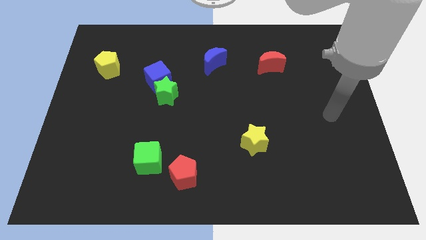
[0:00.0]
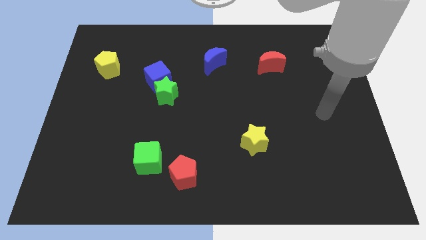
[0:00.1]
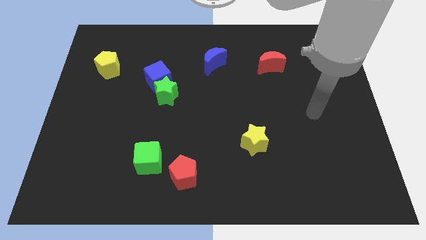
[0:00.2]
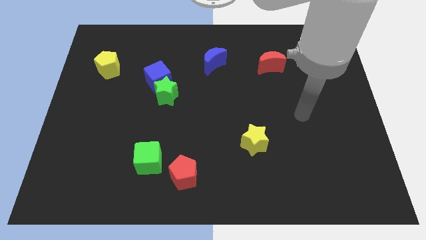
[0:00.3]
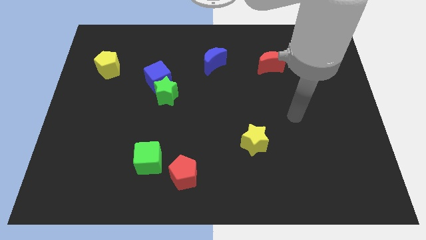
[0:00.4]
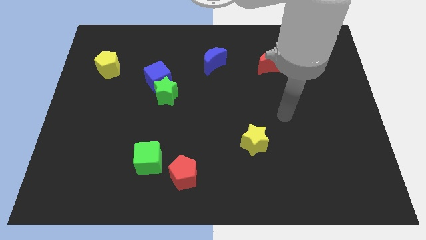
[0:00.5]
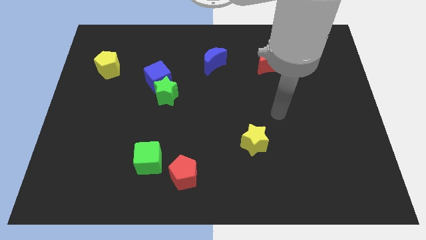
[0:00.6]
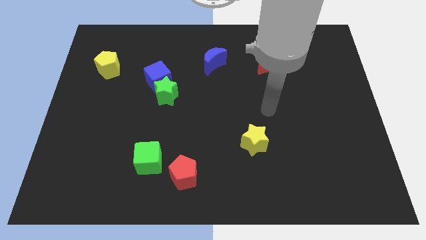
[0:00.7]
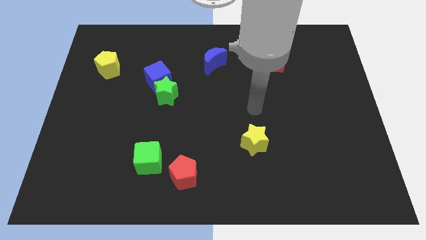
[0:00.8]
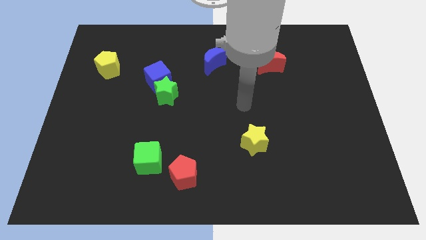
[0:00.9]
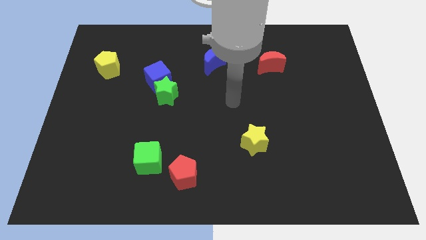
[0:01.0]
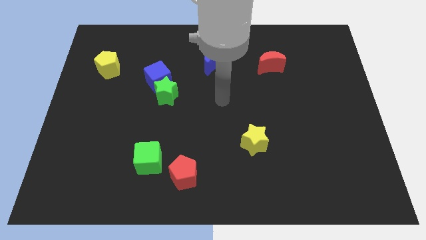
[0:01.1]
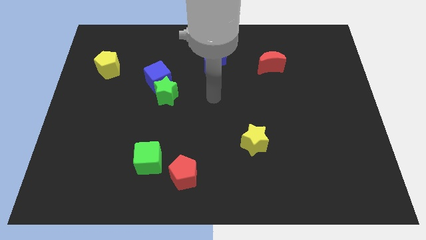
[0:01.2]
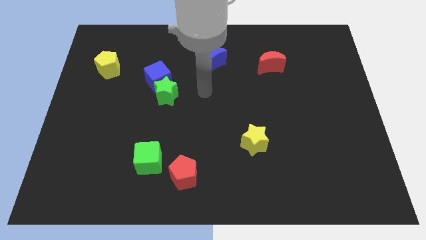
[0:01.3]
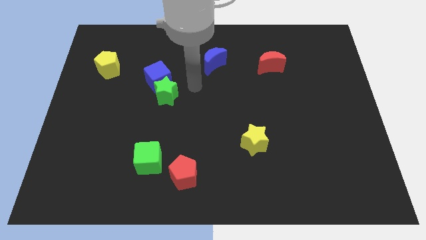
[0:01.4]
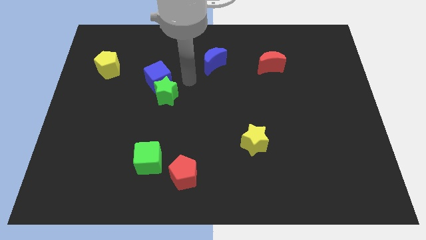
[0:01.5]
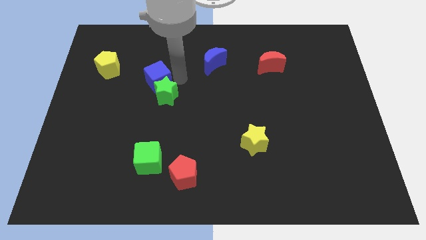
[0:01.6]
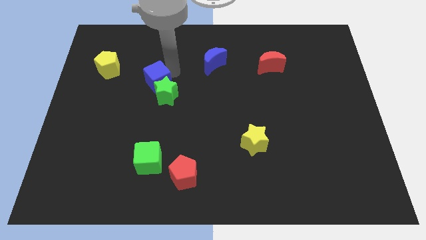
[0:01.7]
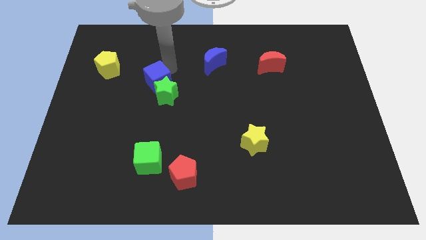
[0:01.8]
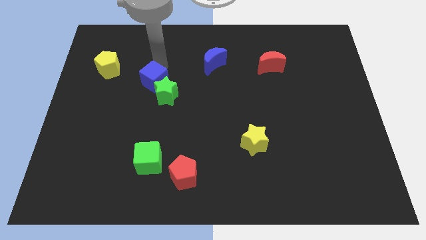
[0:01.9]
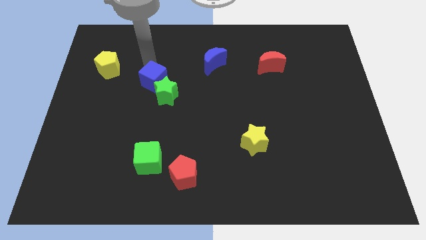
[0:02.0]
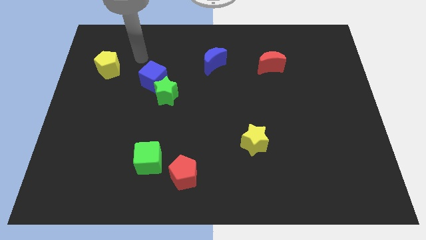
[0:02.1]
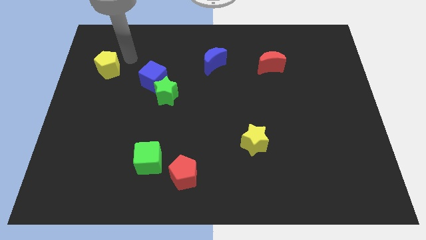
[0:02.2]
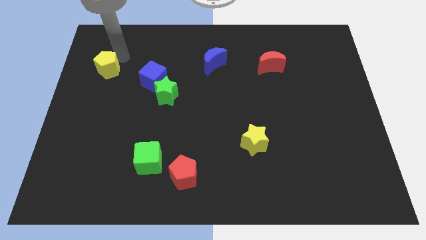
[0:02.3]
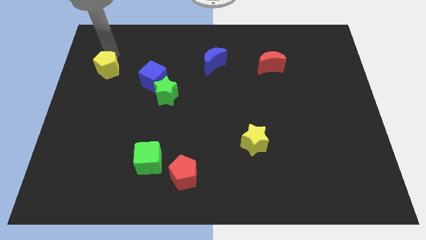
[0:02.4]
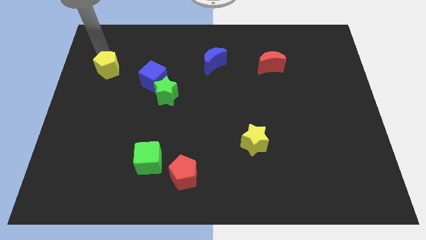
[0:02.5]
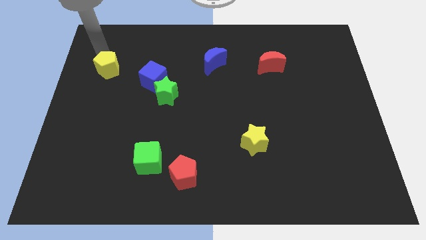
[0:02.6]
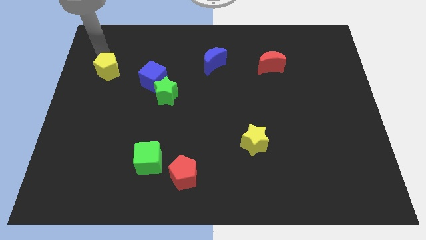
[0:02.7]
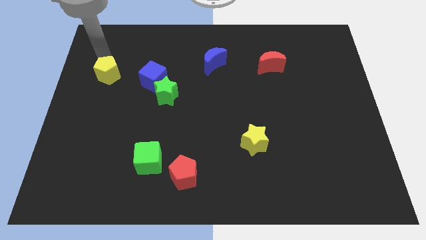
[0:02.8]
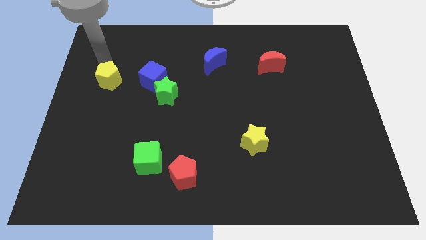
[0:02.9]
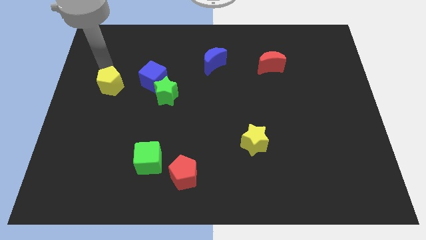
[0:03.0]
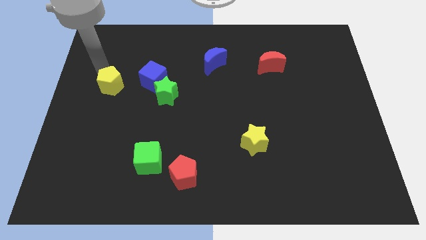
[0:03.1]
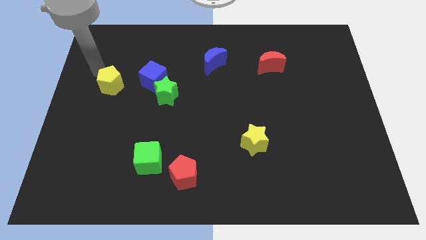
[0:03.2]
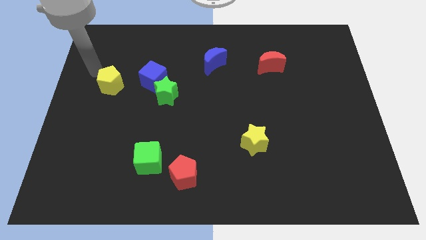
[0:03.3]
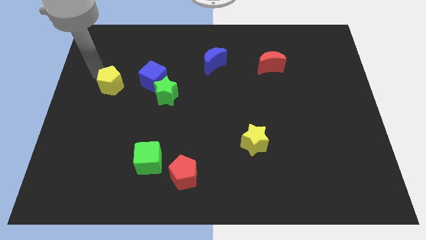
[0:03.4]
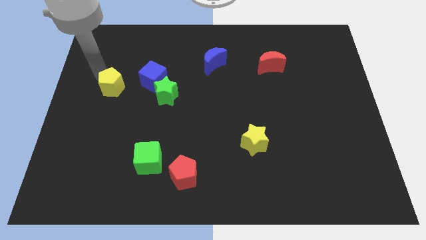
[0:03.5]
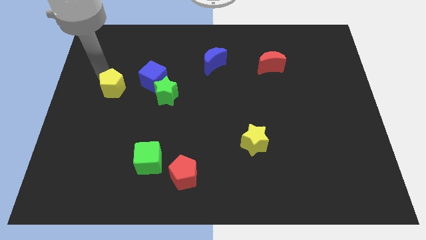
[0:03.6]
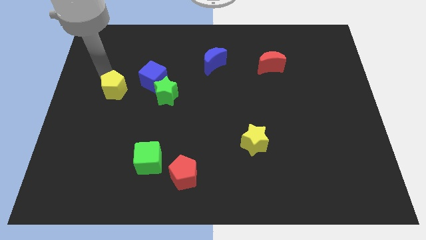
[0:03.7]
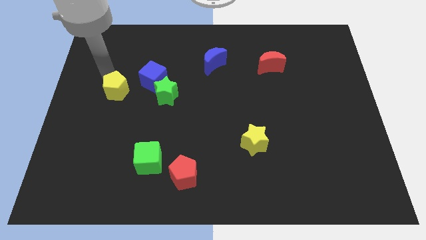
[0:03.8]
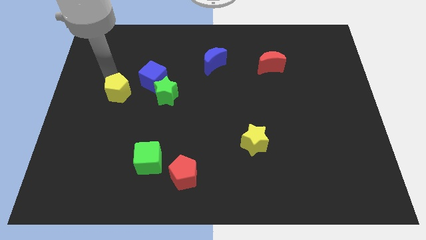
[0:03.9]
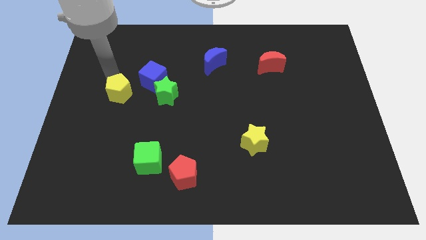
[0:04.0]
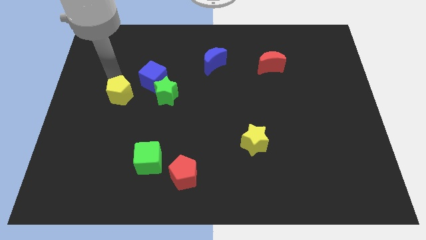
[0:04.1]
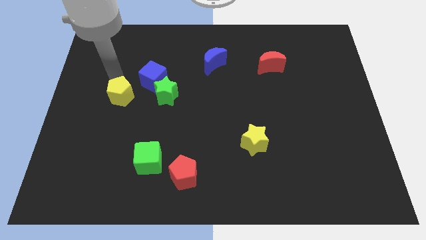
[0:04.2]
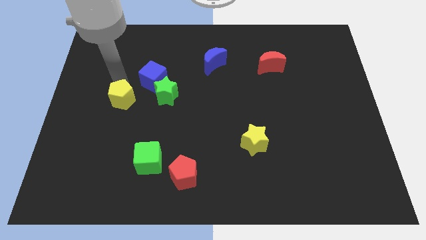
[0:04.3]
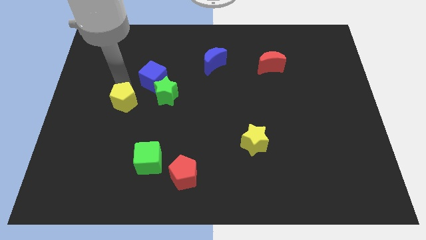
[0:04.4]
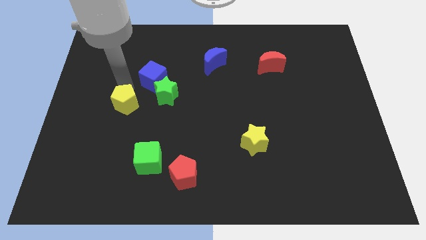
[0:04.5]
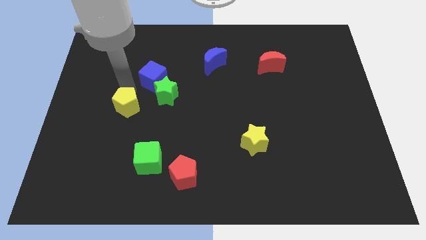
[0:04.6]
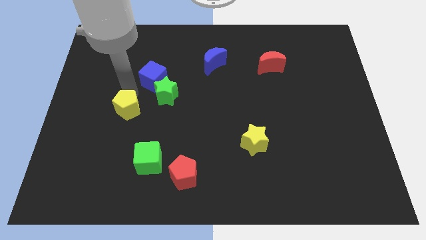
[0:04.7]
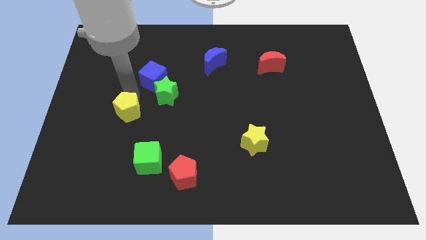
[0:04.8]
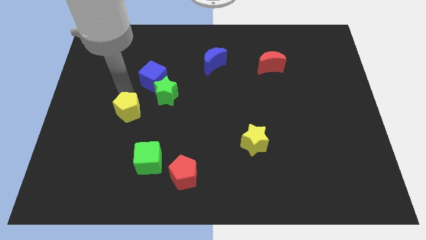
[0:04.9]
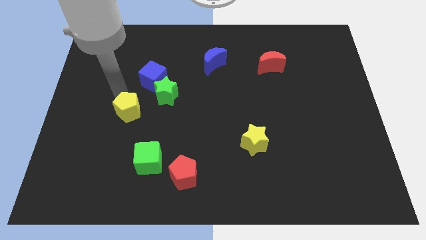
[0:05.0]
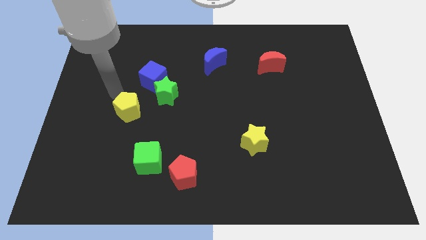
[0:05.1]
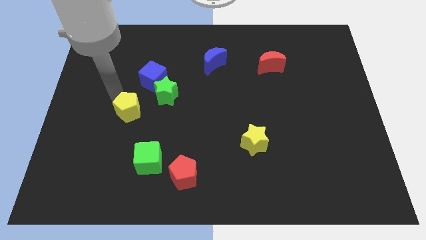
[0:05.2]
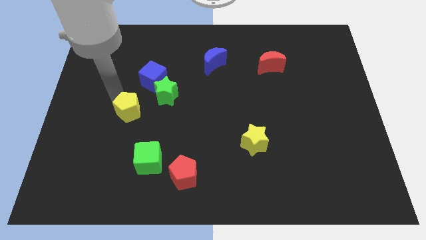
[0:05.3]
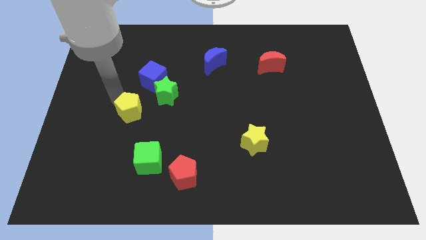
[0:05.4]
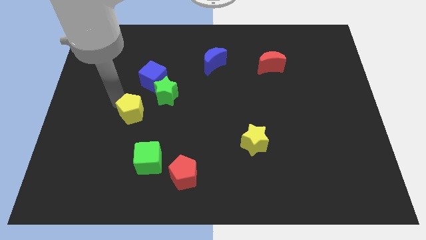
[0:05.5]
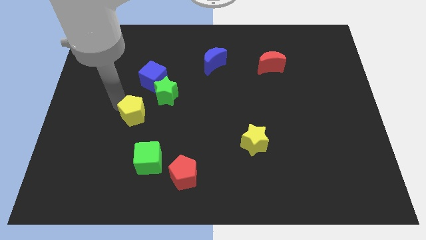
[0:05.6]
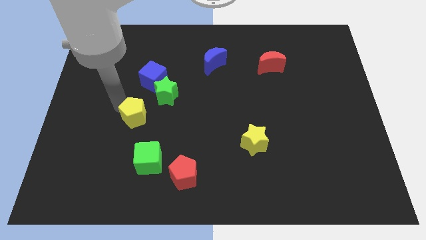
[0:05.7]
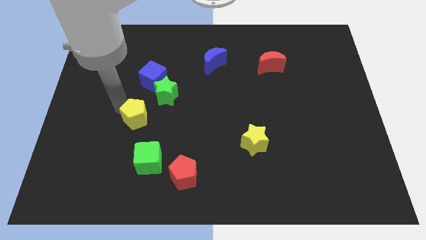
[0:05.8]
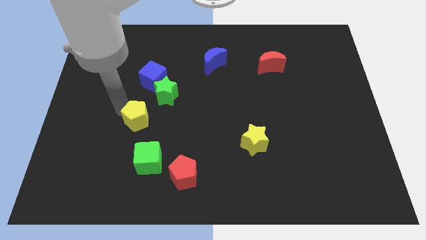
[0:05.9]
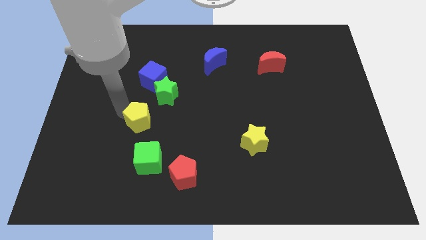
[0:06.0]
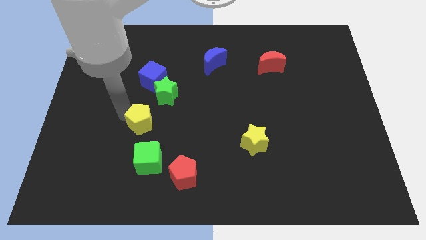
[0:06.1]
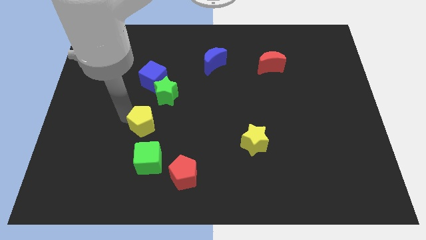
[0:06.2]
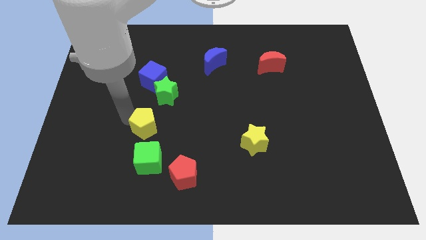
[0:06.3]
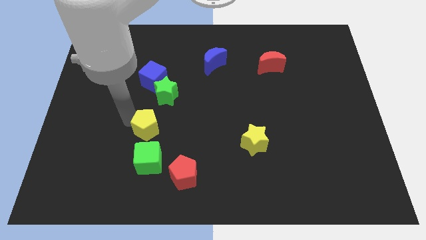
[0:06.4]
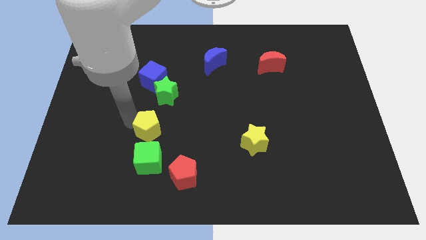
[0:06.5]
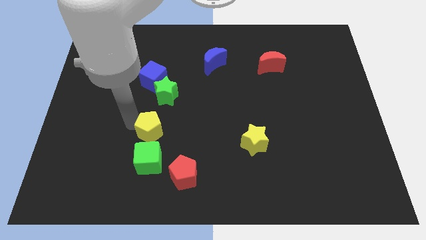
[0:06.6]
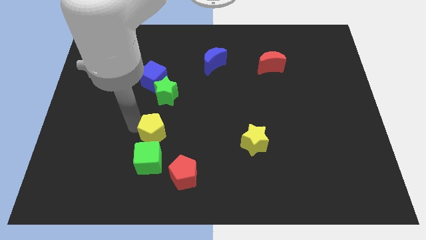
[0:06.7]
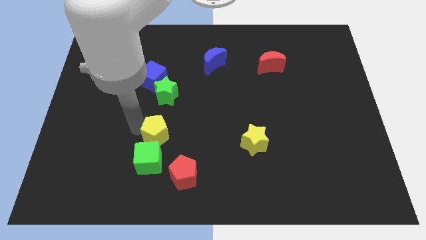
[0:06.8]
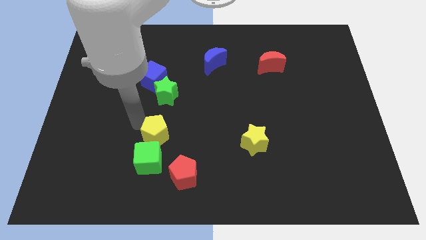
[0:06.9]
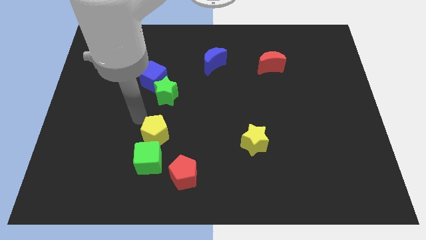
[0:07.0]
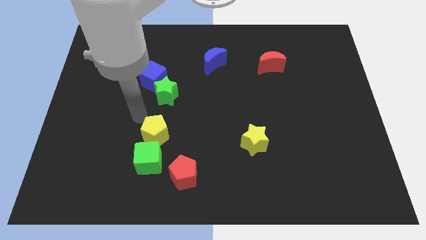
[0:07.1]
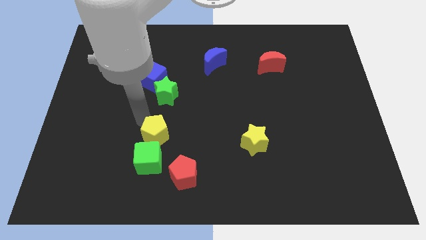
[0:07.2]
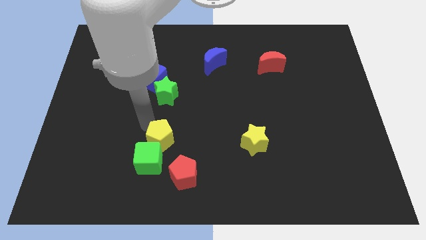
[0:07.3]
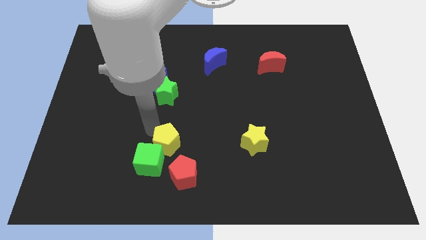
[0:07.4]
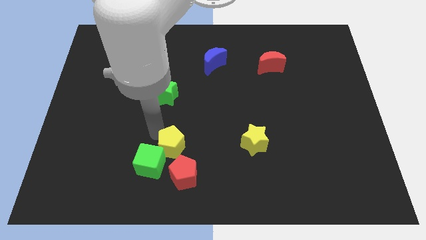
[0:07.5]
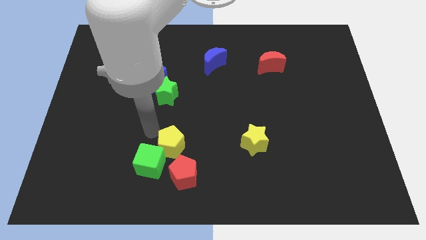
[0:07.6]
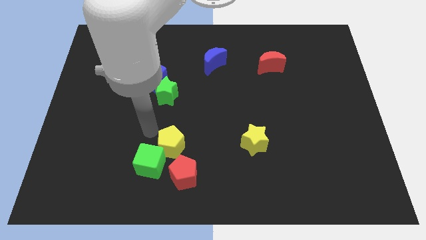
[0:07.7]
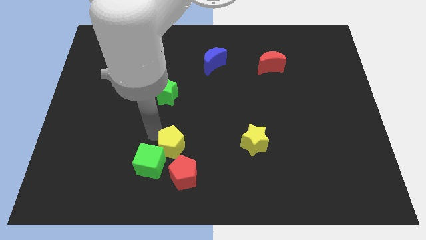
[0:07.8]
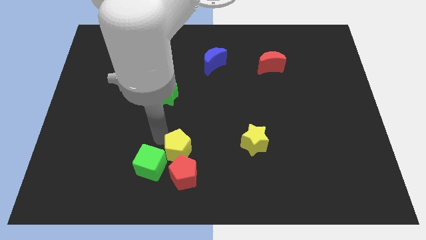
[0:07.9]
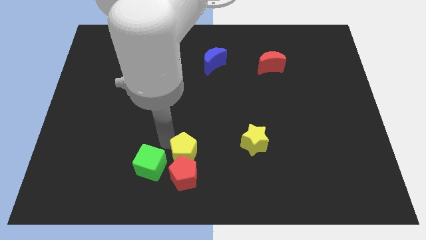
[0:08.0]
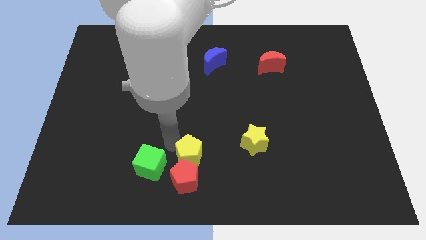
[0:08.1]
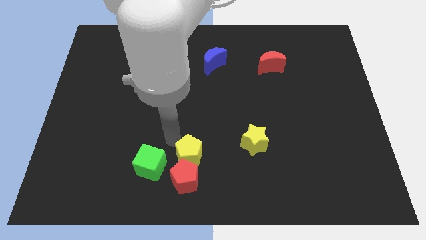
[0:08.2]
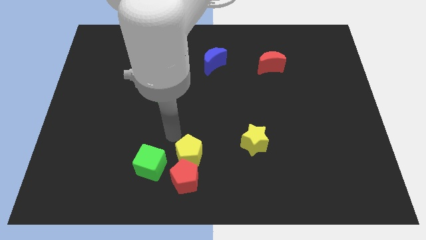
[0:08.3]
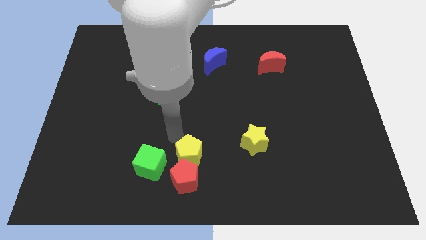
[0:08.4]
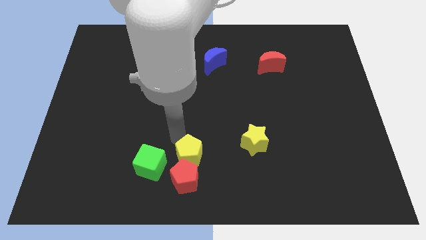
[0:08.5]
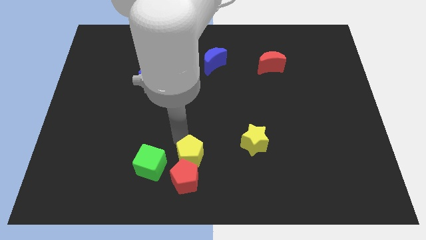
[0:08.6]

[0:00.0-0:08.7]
put the yellow pentagon to the bottom
